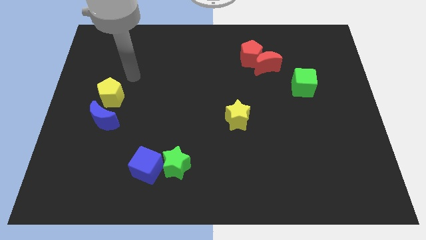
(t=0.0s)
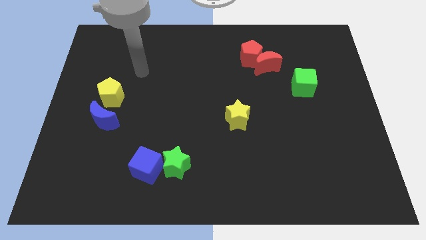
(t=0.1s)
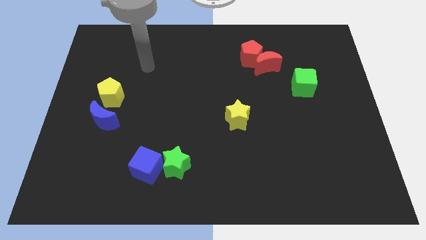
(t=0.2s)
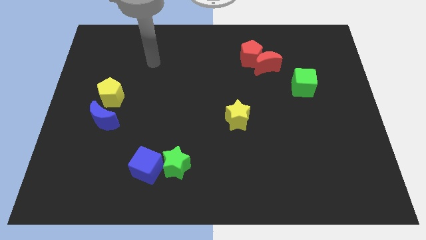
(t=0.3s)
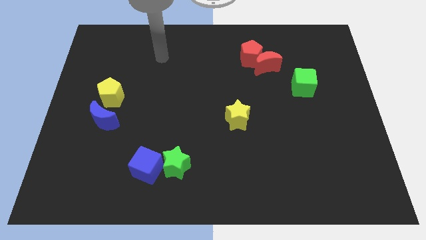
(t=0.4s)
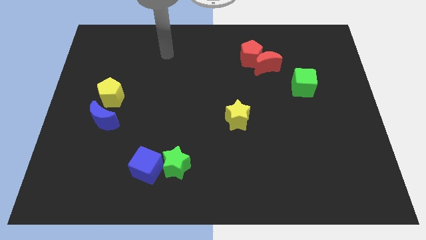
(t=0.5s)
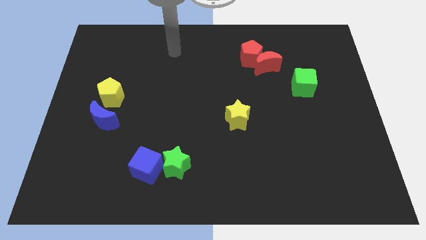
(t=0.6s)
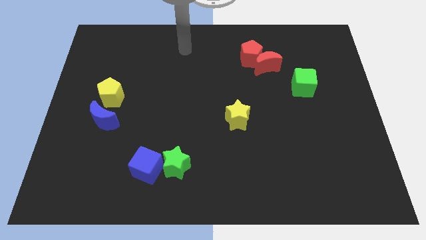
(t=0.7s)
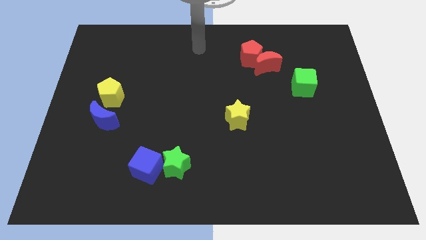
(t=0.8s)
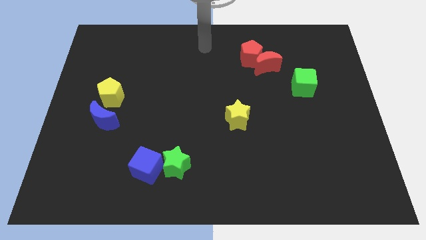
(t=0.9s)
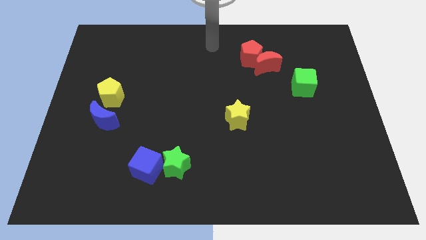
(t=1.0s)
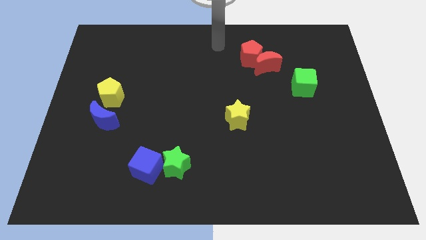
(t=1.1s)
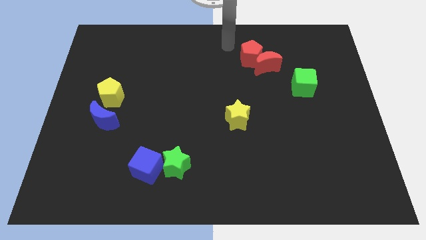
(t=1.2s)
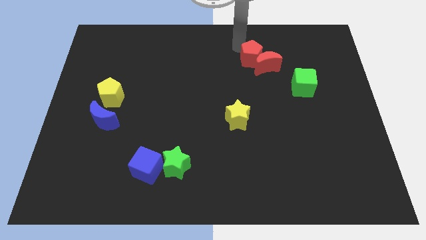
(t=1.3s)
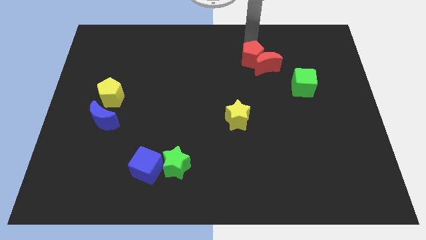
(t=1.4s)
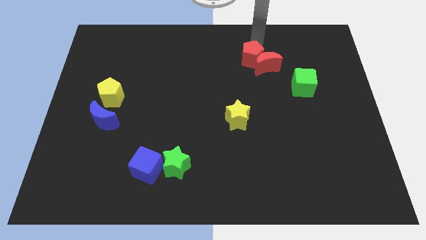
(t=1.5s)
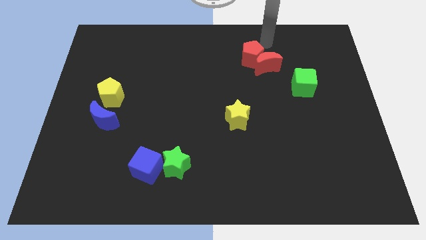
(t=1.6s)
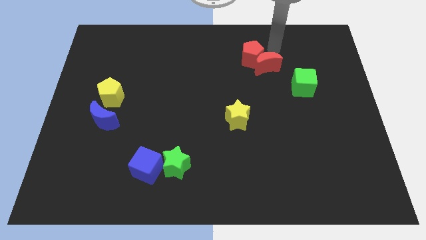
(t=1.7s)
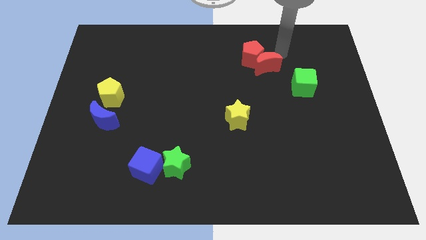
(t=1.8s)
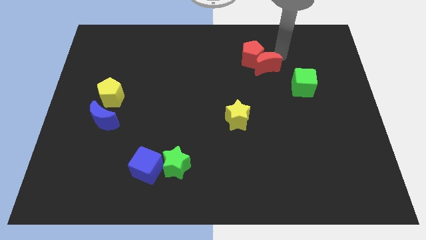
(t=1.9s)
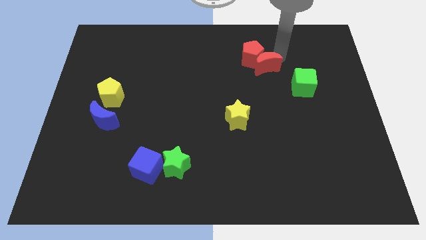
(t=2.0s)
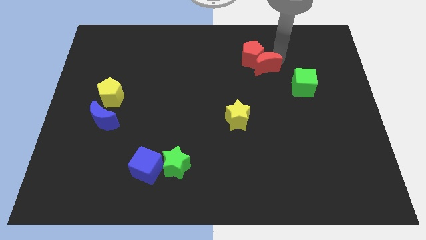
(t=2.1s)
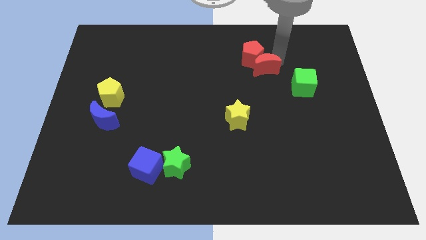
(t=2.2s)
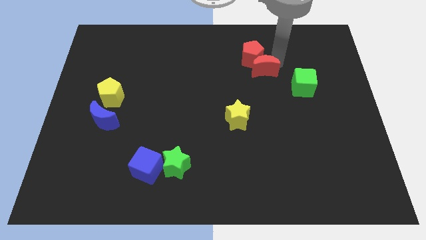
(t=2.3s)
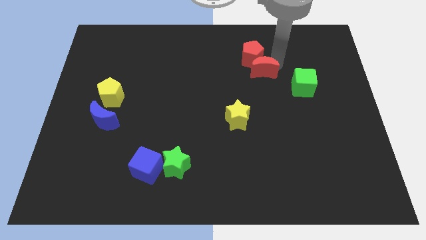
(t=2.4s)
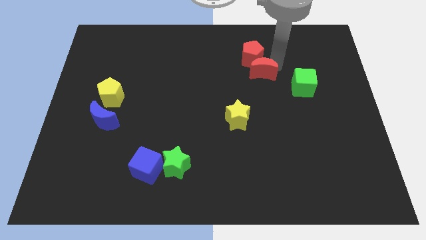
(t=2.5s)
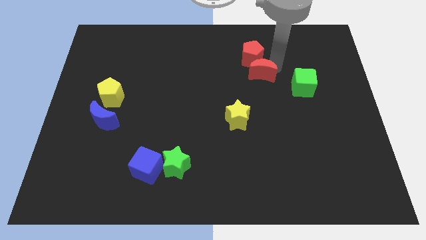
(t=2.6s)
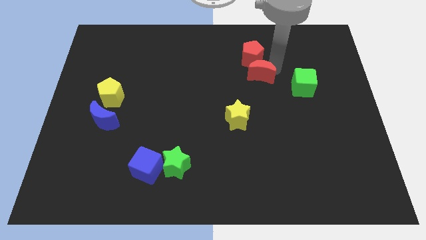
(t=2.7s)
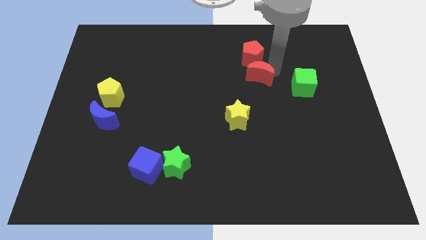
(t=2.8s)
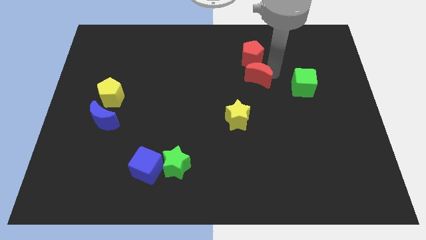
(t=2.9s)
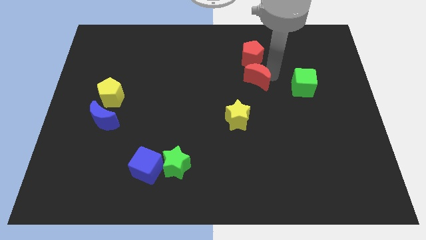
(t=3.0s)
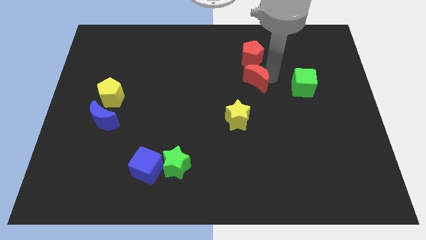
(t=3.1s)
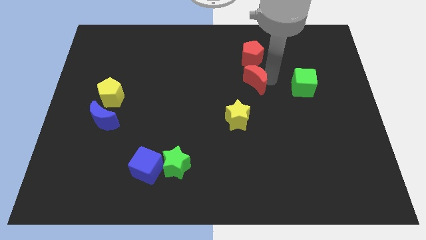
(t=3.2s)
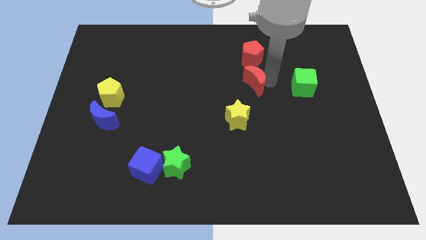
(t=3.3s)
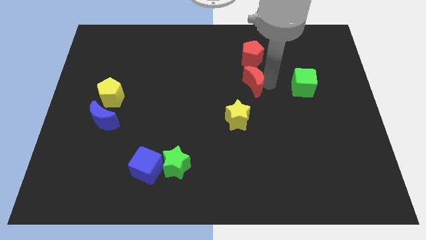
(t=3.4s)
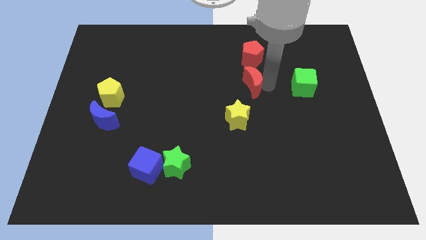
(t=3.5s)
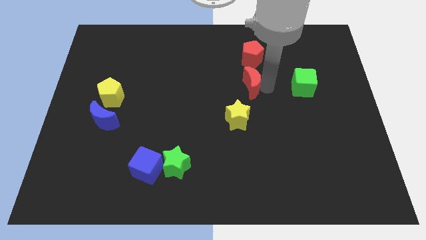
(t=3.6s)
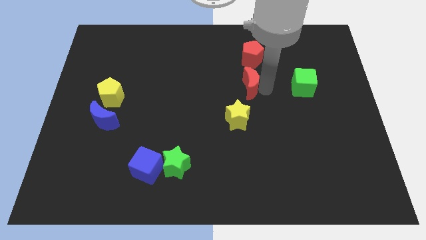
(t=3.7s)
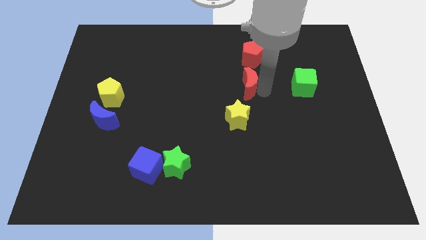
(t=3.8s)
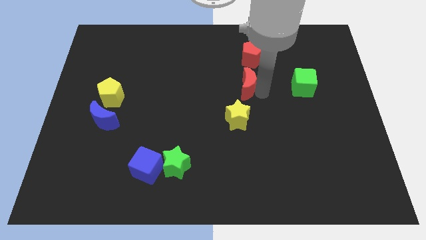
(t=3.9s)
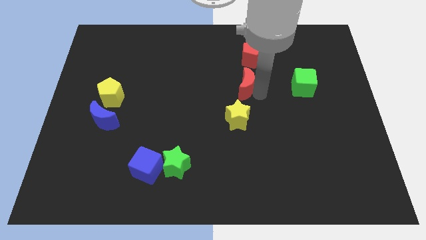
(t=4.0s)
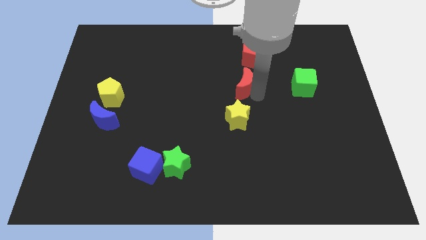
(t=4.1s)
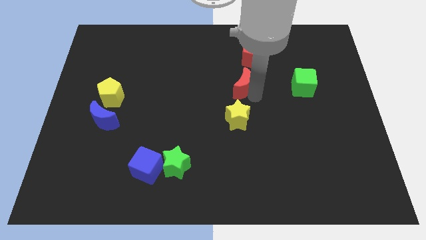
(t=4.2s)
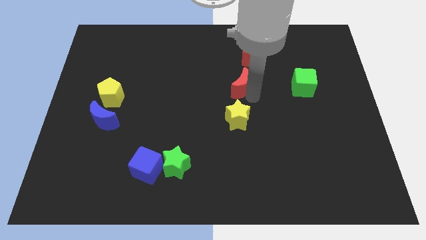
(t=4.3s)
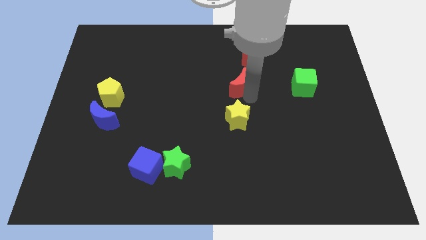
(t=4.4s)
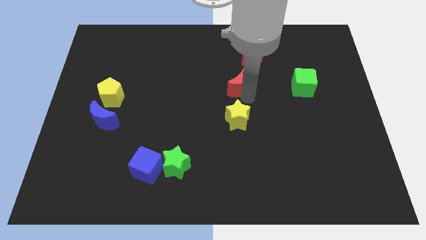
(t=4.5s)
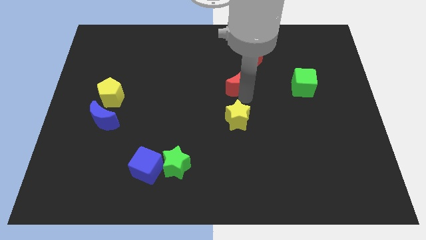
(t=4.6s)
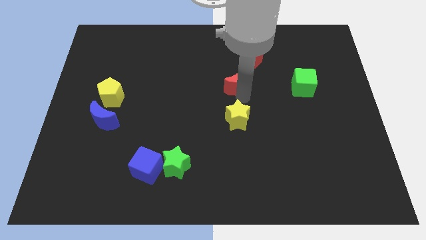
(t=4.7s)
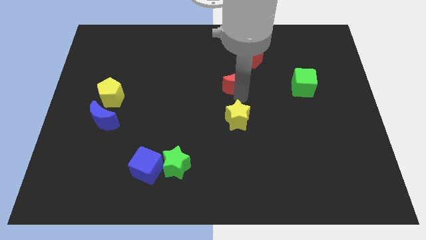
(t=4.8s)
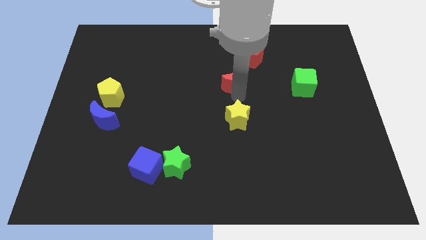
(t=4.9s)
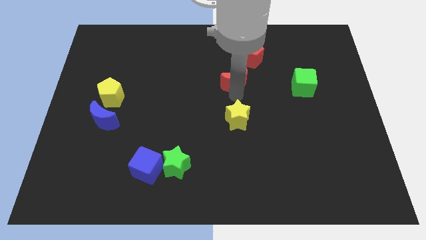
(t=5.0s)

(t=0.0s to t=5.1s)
slightly slide the red moon left

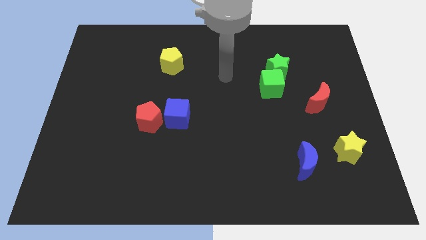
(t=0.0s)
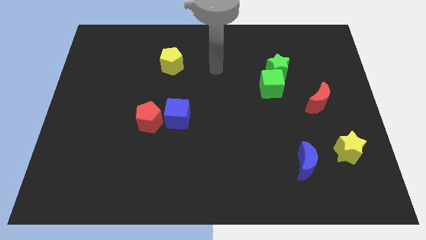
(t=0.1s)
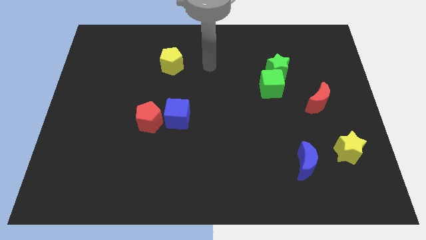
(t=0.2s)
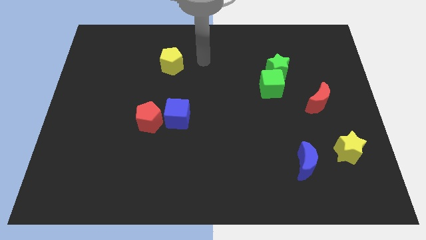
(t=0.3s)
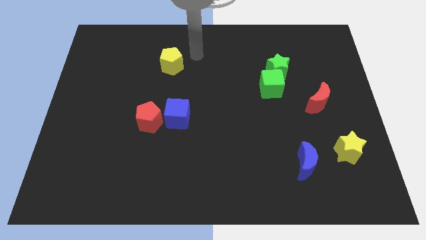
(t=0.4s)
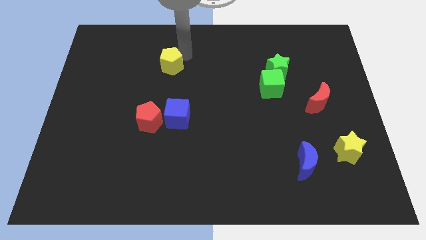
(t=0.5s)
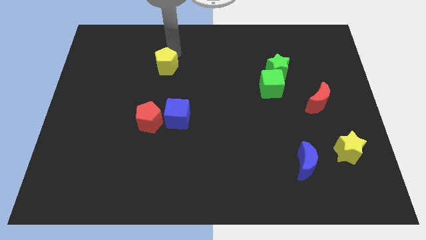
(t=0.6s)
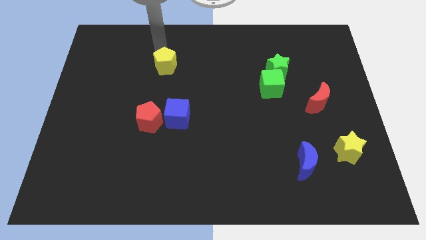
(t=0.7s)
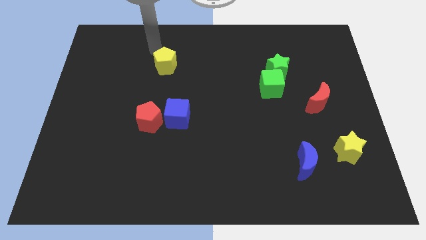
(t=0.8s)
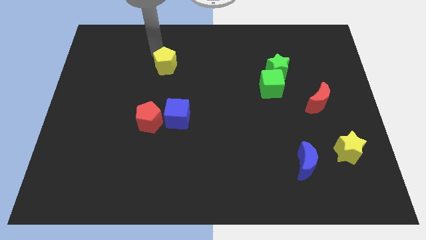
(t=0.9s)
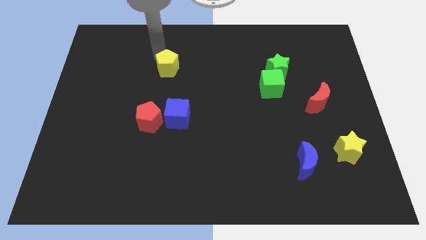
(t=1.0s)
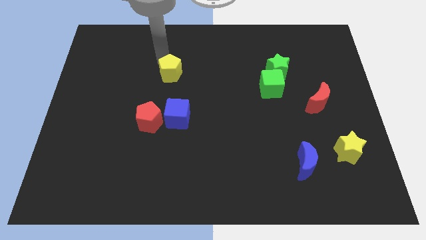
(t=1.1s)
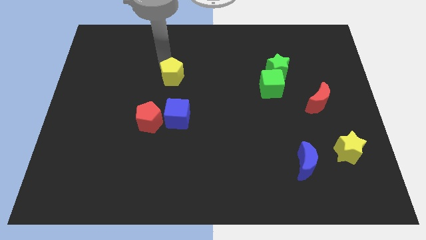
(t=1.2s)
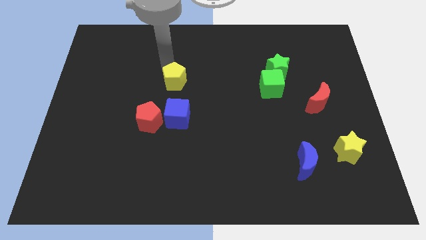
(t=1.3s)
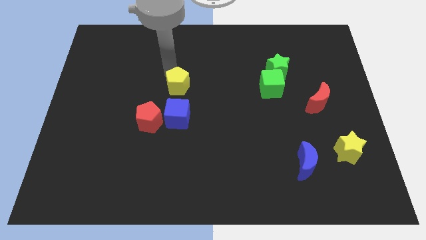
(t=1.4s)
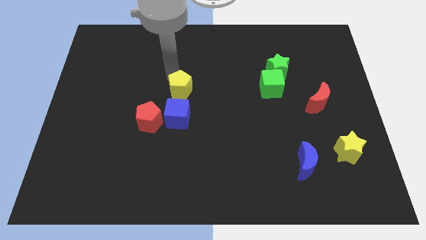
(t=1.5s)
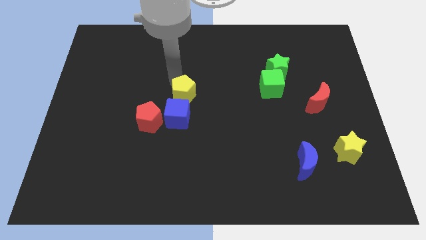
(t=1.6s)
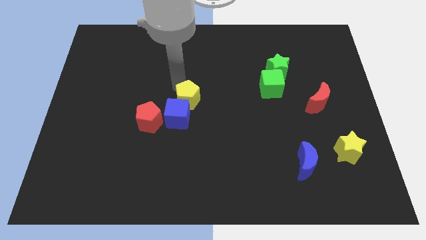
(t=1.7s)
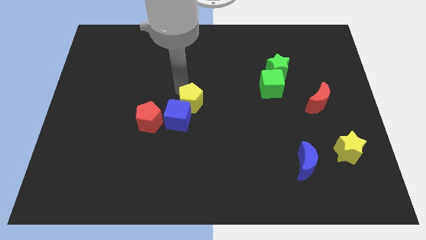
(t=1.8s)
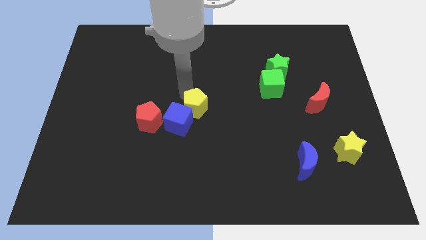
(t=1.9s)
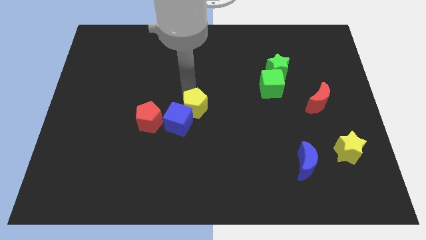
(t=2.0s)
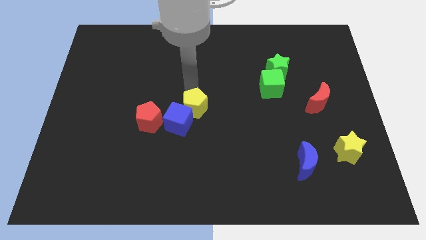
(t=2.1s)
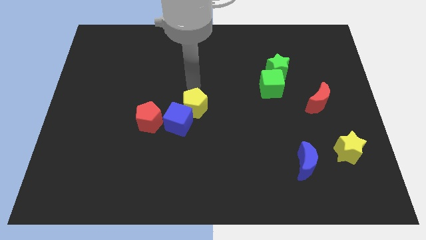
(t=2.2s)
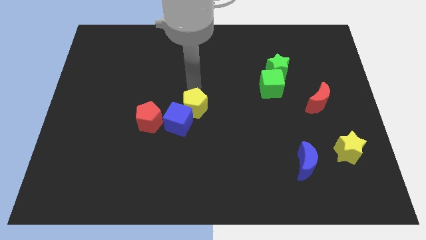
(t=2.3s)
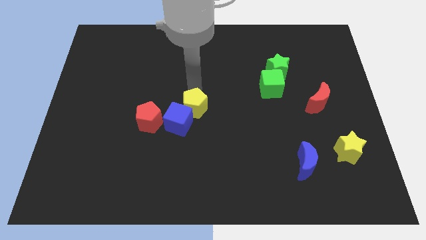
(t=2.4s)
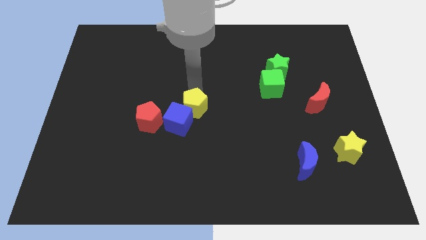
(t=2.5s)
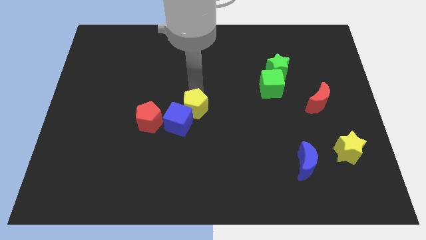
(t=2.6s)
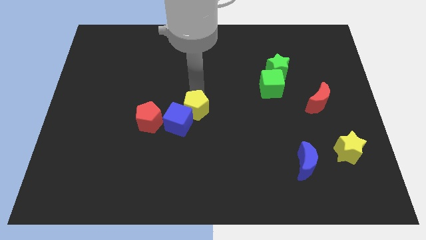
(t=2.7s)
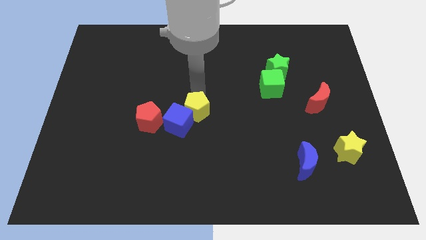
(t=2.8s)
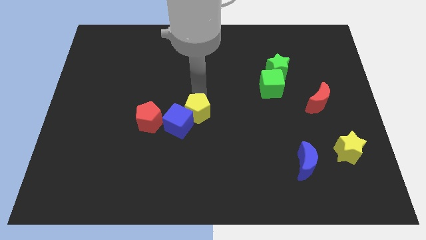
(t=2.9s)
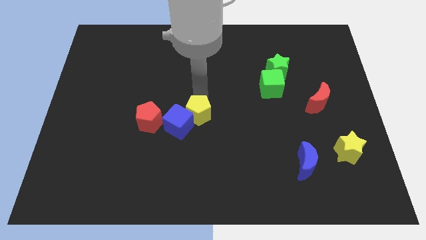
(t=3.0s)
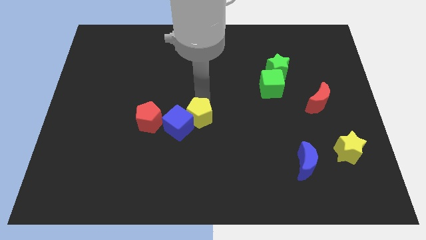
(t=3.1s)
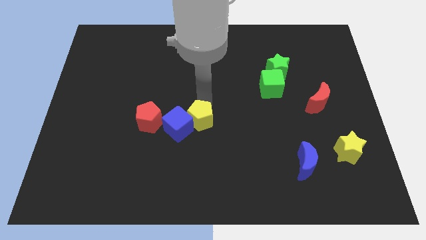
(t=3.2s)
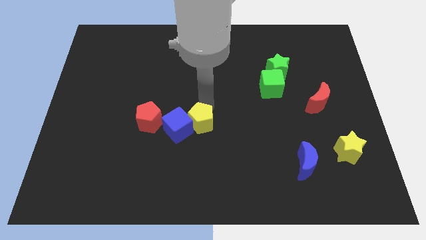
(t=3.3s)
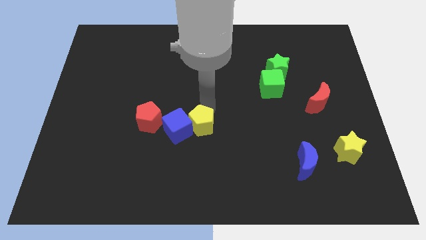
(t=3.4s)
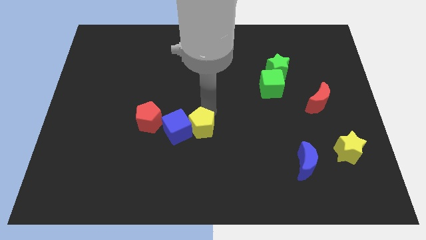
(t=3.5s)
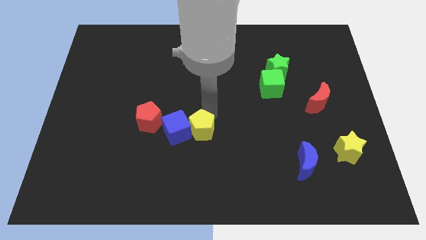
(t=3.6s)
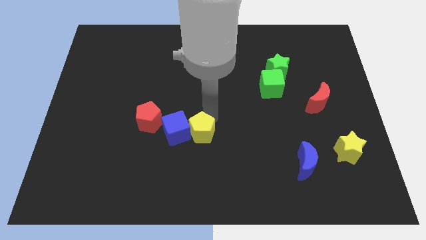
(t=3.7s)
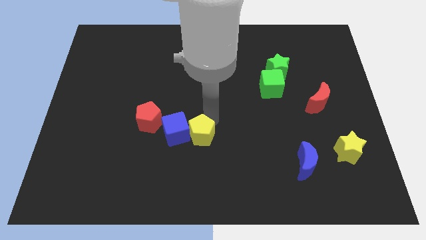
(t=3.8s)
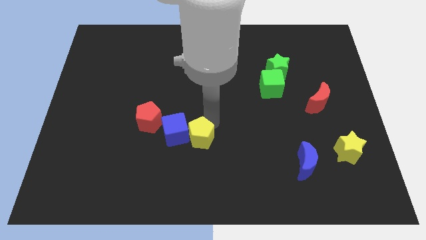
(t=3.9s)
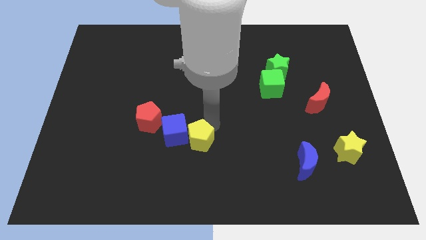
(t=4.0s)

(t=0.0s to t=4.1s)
move the yellow pentagon down
